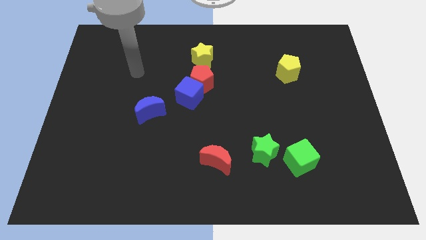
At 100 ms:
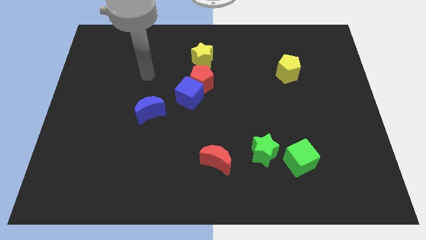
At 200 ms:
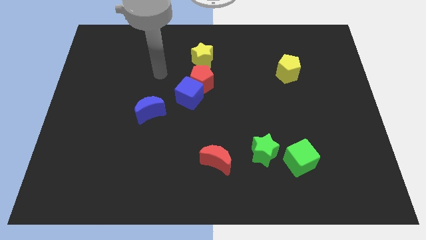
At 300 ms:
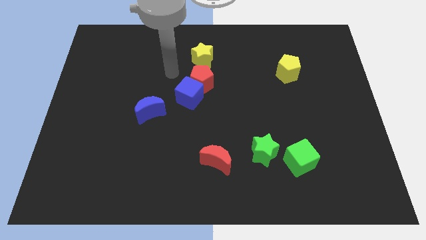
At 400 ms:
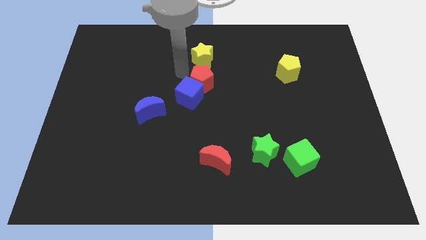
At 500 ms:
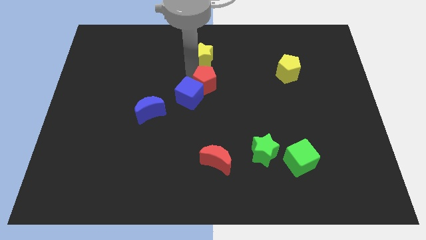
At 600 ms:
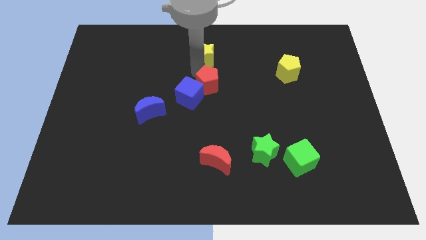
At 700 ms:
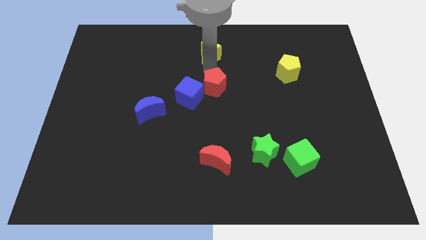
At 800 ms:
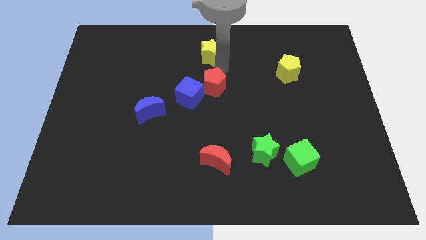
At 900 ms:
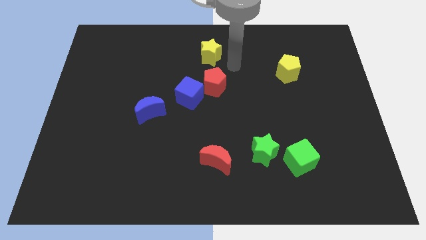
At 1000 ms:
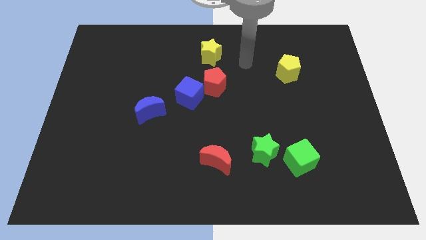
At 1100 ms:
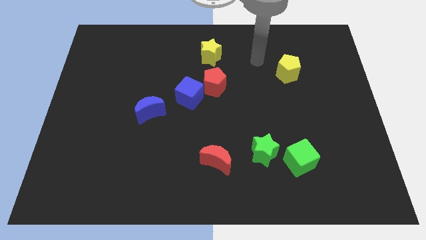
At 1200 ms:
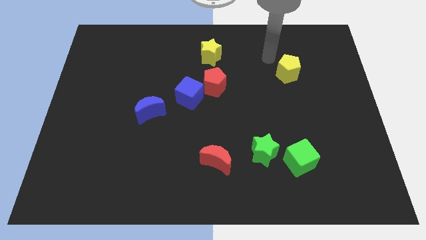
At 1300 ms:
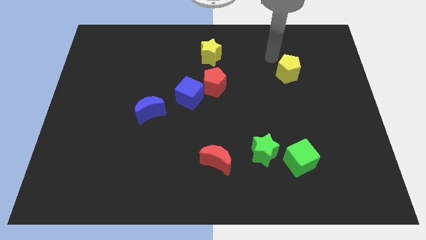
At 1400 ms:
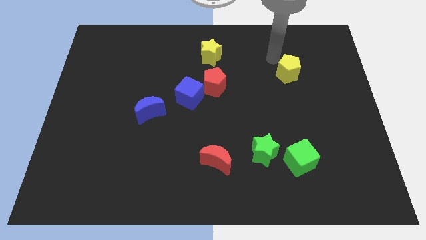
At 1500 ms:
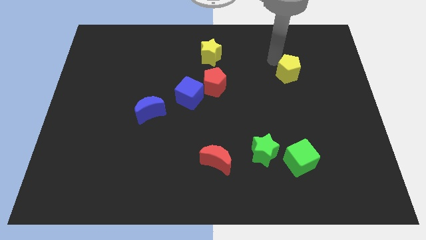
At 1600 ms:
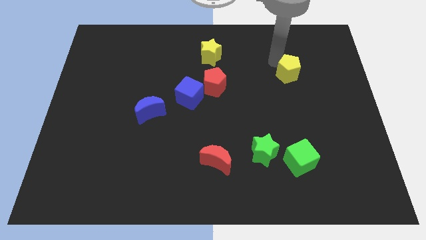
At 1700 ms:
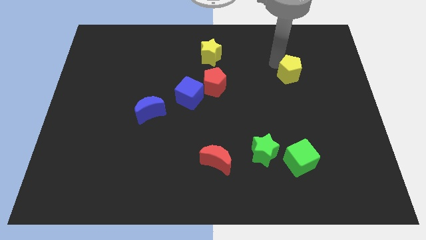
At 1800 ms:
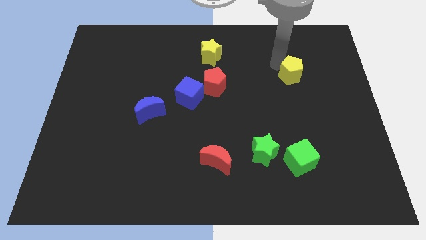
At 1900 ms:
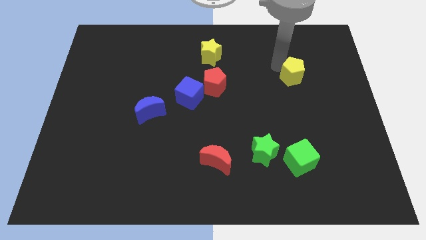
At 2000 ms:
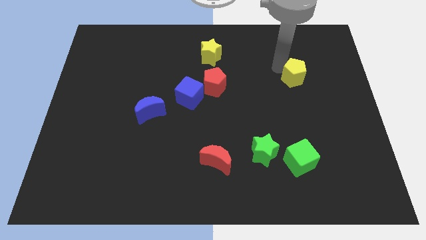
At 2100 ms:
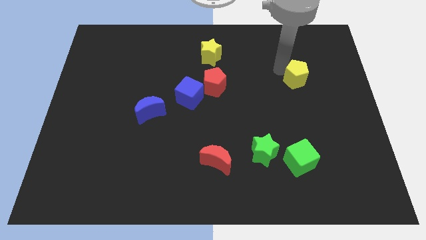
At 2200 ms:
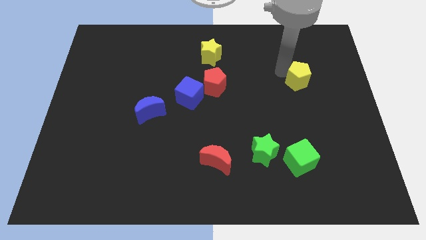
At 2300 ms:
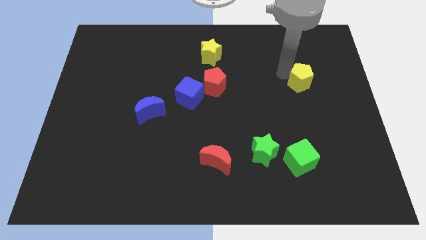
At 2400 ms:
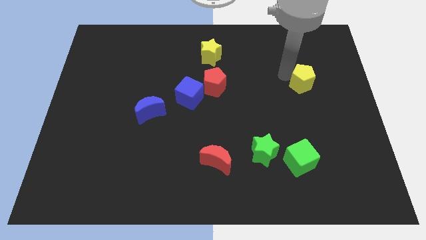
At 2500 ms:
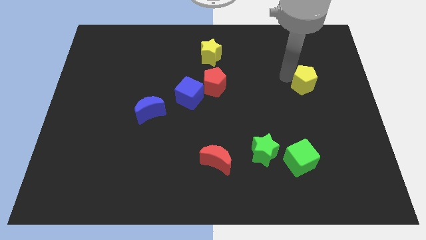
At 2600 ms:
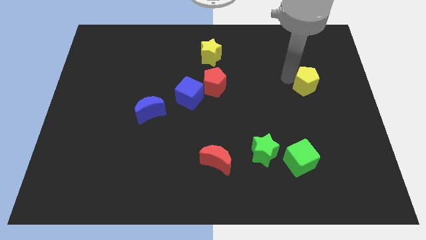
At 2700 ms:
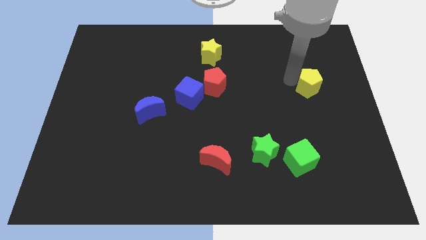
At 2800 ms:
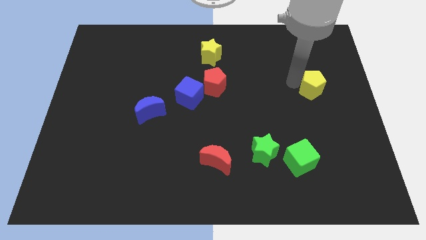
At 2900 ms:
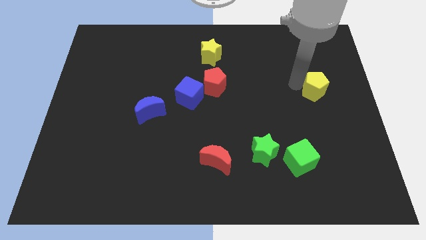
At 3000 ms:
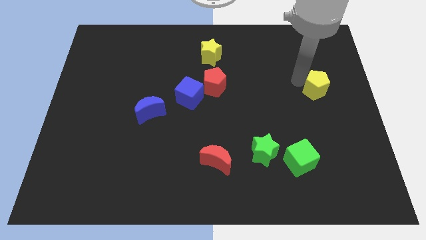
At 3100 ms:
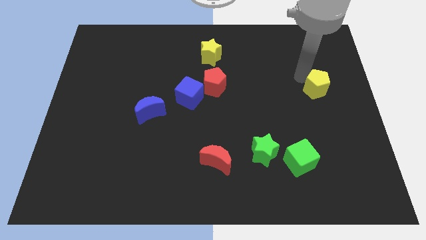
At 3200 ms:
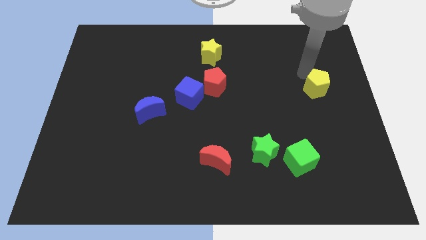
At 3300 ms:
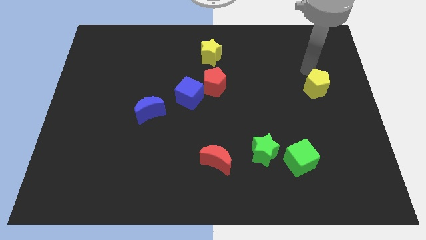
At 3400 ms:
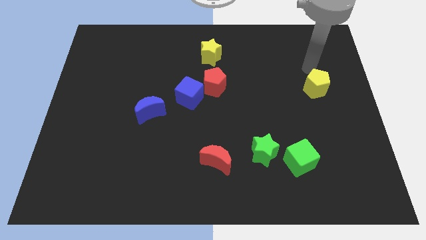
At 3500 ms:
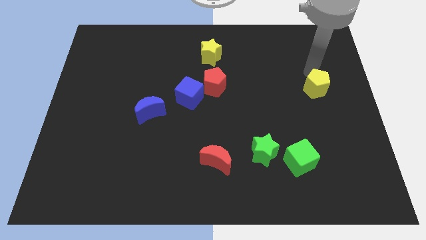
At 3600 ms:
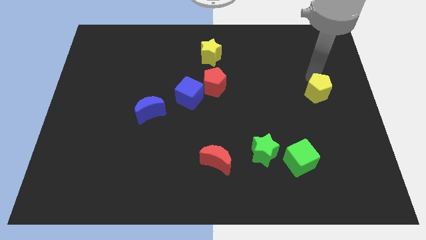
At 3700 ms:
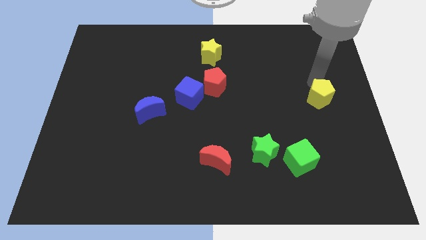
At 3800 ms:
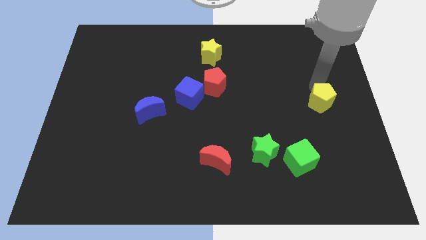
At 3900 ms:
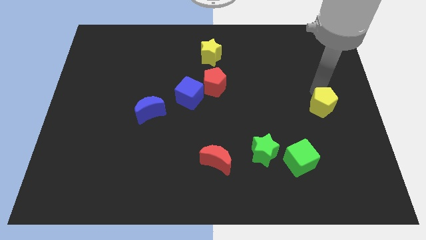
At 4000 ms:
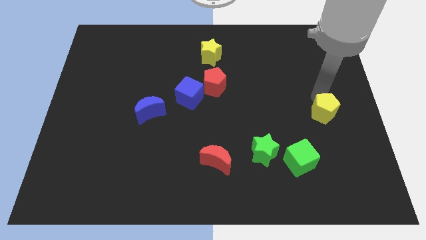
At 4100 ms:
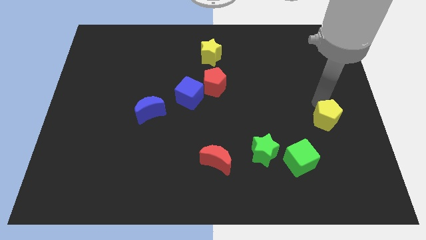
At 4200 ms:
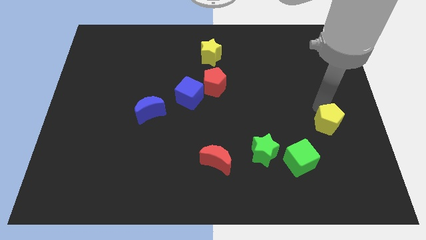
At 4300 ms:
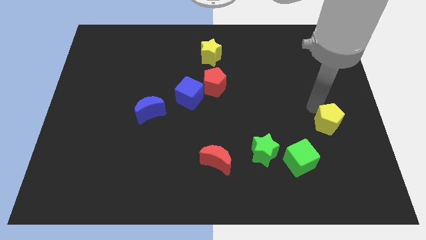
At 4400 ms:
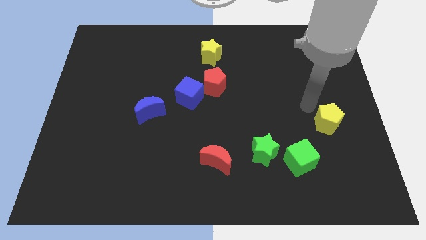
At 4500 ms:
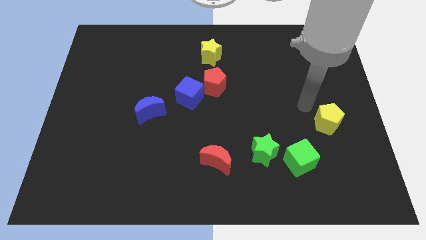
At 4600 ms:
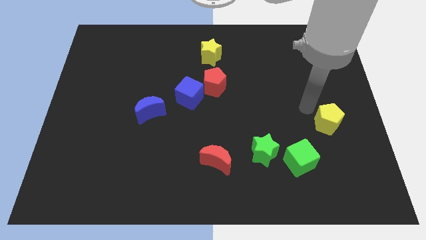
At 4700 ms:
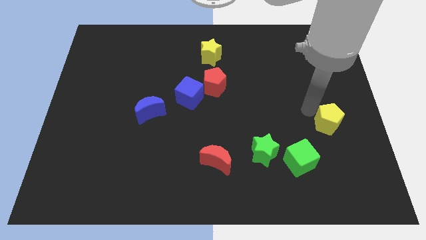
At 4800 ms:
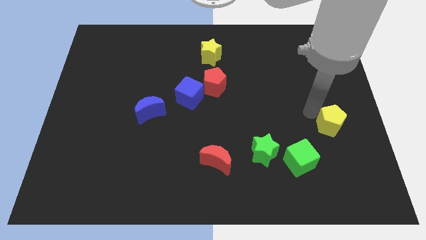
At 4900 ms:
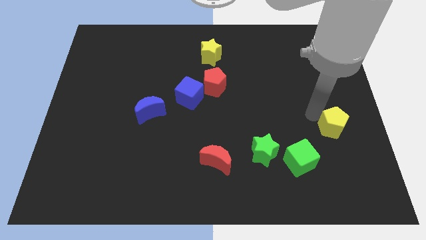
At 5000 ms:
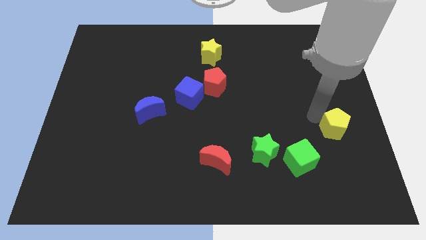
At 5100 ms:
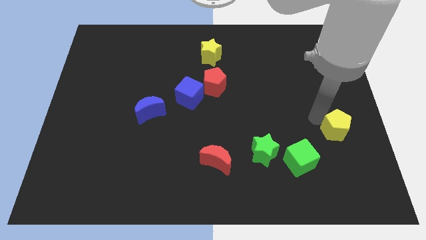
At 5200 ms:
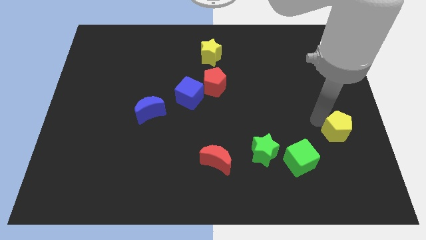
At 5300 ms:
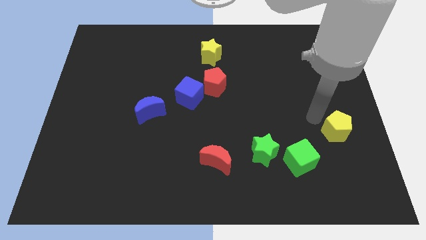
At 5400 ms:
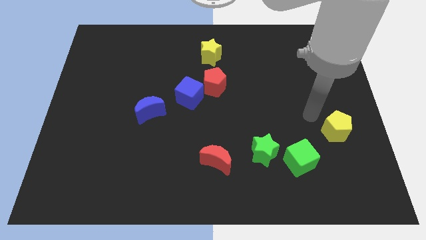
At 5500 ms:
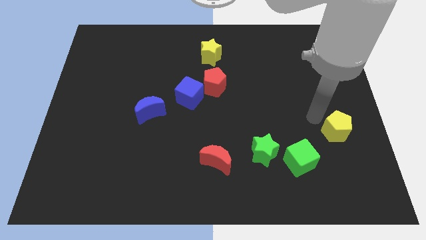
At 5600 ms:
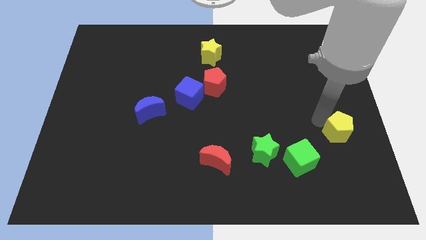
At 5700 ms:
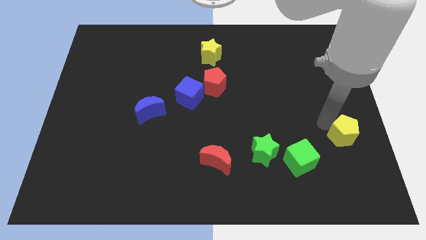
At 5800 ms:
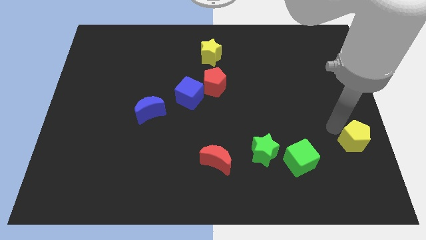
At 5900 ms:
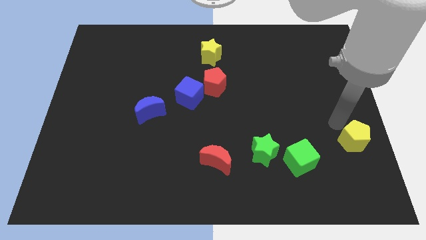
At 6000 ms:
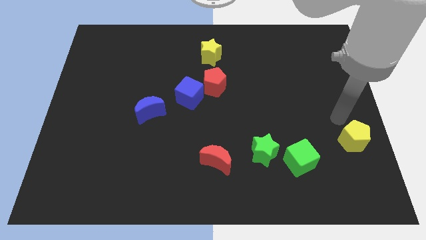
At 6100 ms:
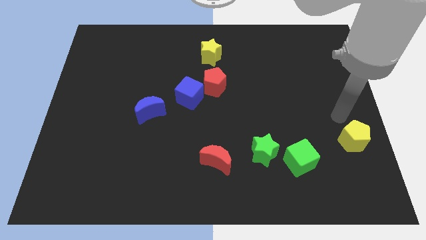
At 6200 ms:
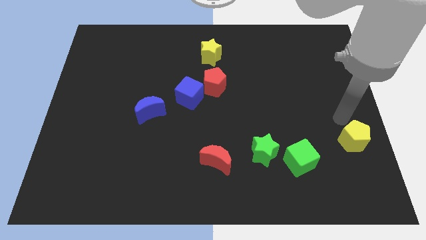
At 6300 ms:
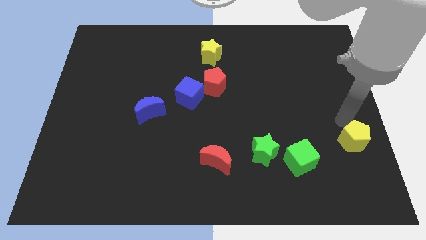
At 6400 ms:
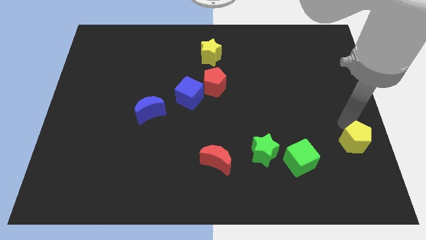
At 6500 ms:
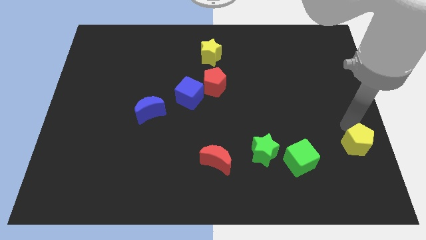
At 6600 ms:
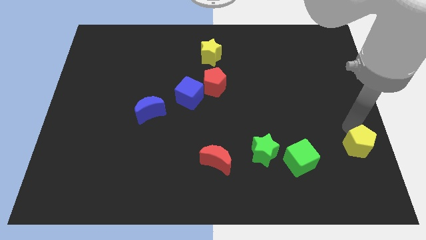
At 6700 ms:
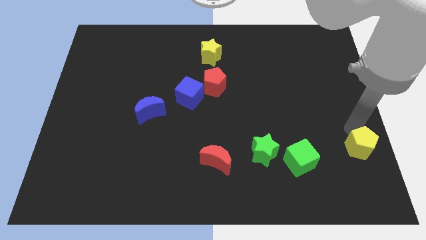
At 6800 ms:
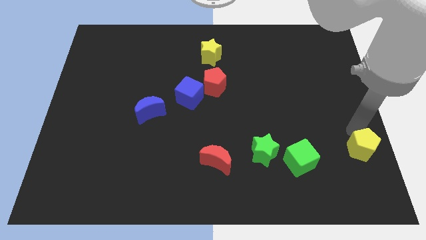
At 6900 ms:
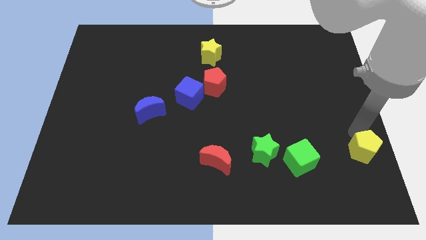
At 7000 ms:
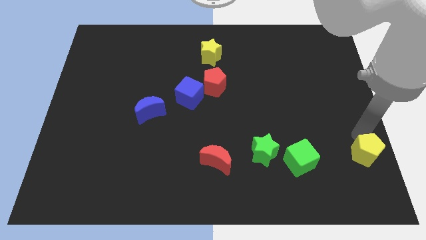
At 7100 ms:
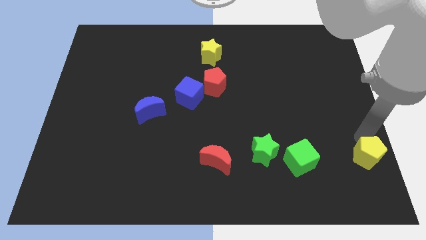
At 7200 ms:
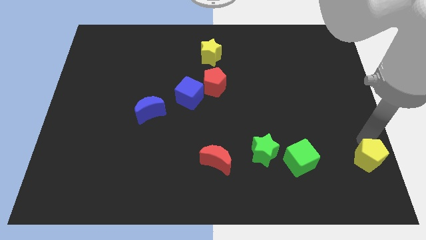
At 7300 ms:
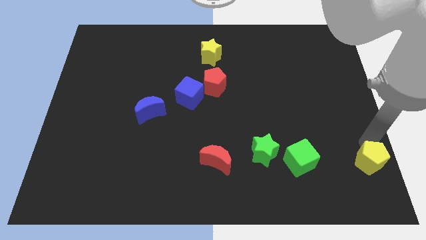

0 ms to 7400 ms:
push the yellow pentagon to the bottom right corner

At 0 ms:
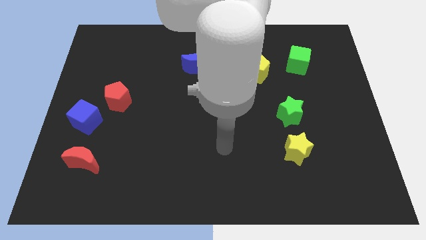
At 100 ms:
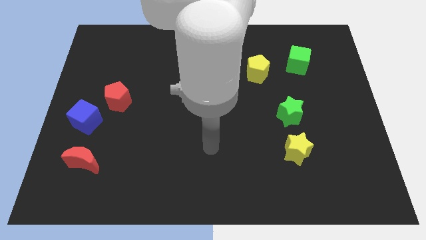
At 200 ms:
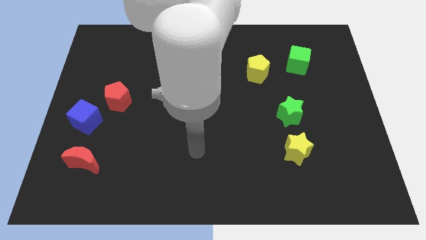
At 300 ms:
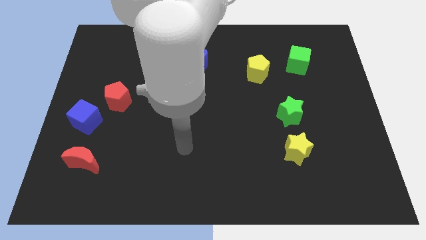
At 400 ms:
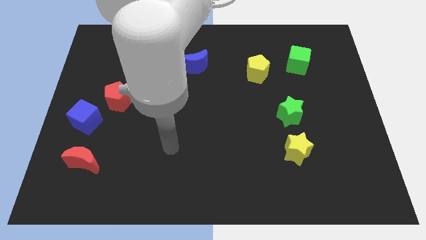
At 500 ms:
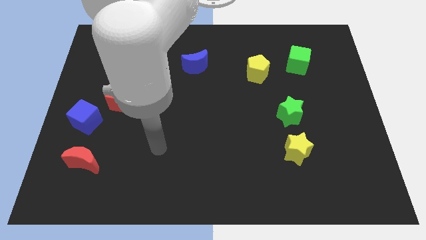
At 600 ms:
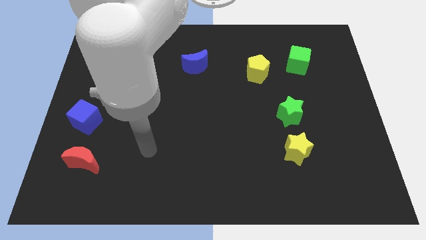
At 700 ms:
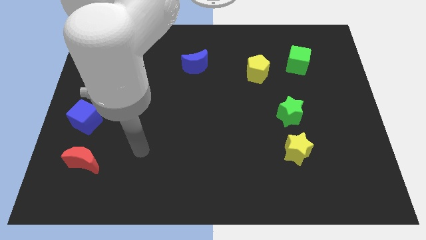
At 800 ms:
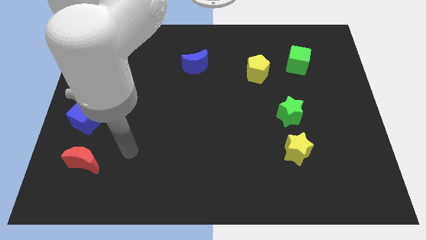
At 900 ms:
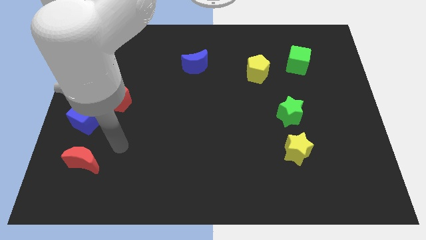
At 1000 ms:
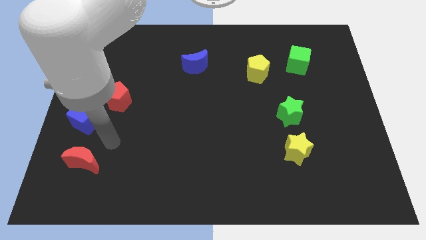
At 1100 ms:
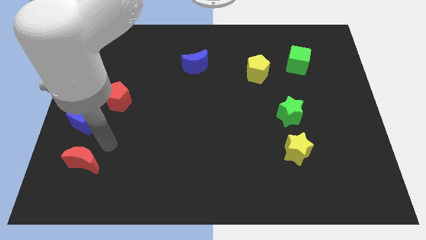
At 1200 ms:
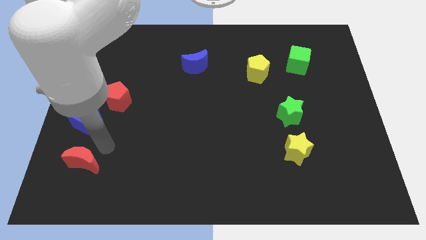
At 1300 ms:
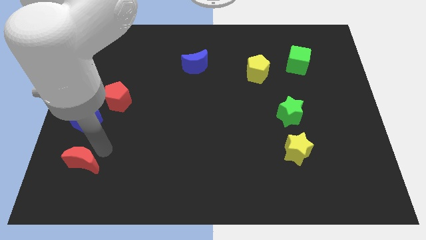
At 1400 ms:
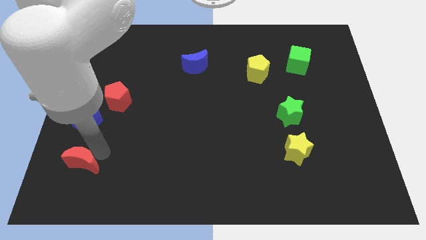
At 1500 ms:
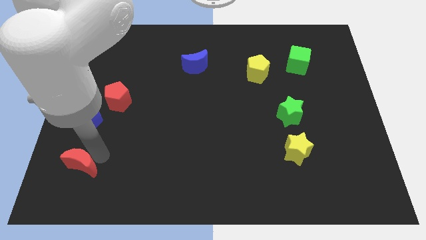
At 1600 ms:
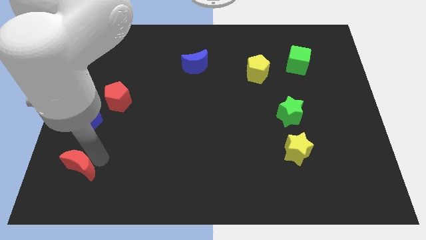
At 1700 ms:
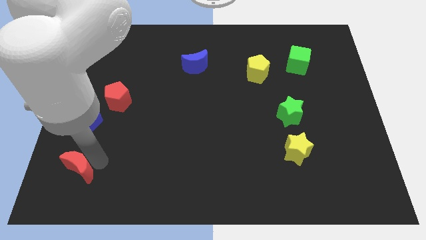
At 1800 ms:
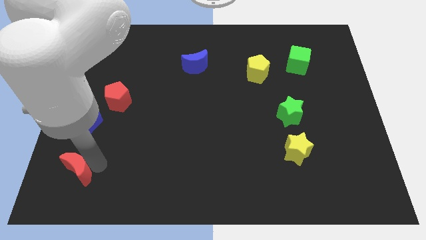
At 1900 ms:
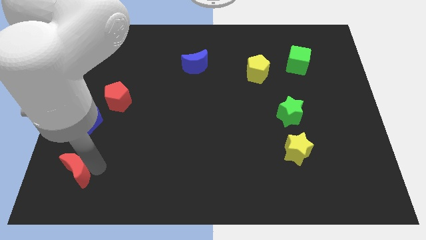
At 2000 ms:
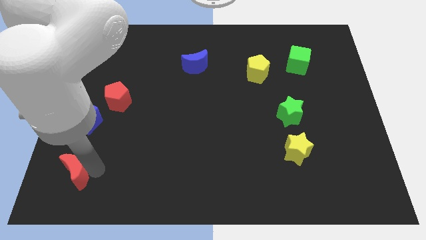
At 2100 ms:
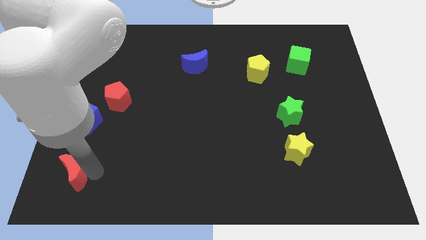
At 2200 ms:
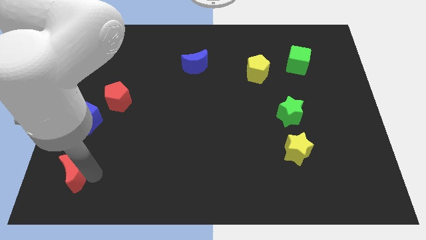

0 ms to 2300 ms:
push the red moon to the bottom left of the board
